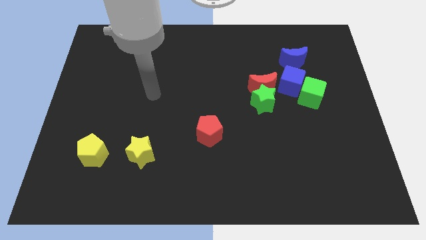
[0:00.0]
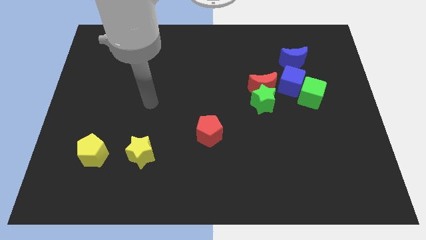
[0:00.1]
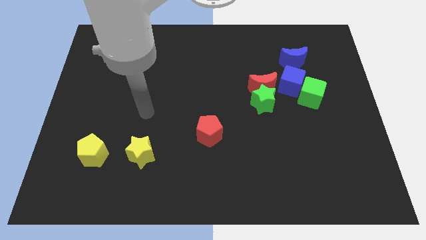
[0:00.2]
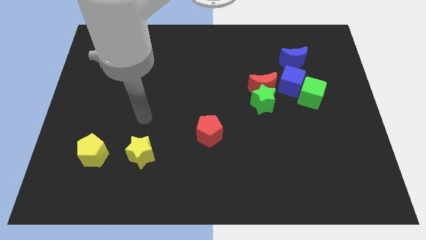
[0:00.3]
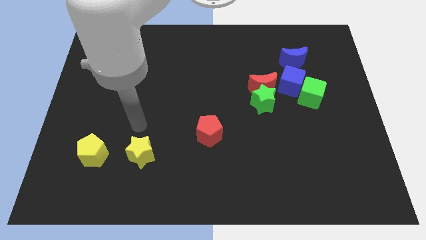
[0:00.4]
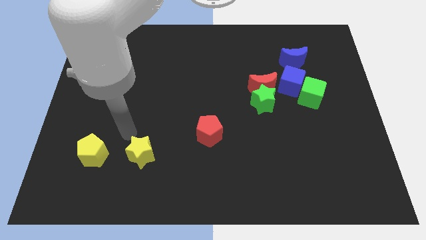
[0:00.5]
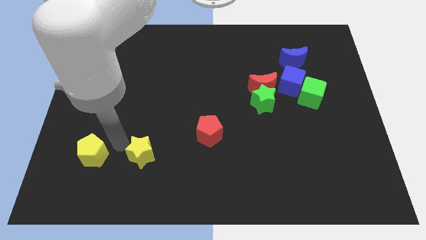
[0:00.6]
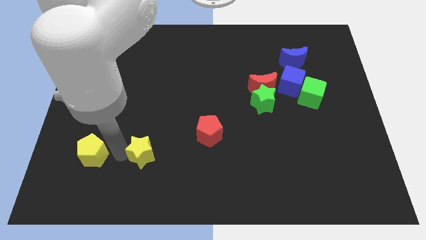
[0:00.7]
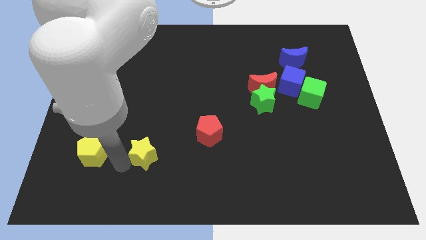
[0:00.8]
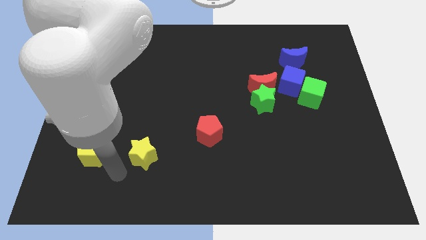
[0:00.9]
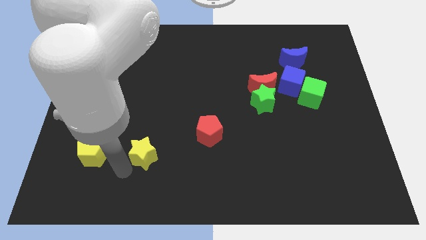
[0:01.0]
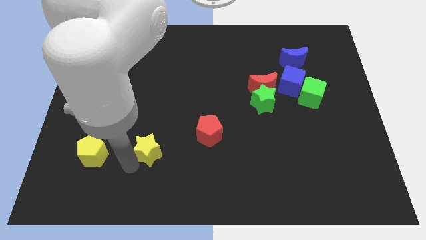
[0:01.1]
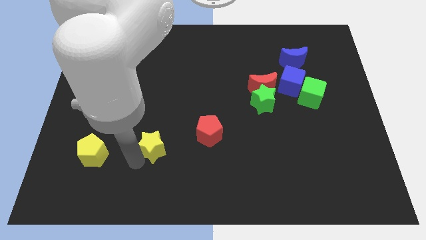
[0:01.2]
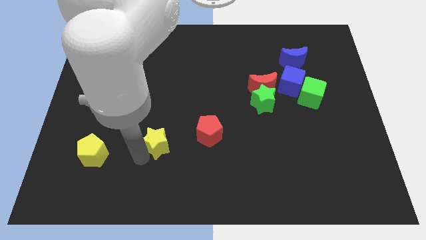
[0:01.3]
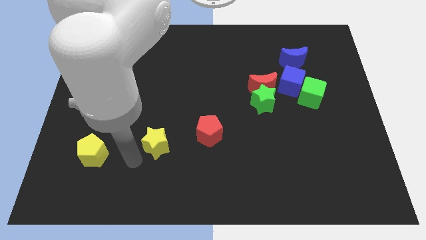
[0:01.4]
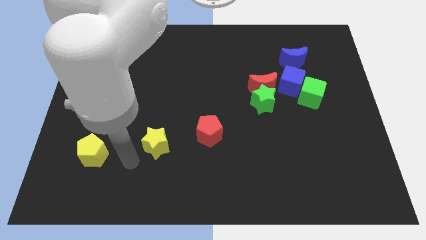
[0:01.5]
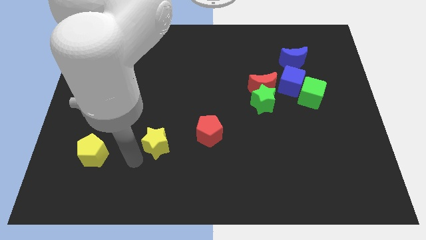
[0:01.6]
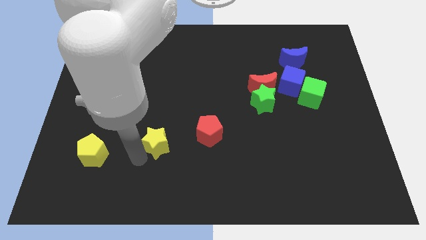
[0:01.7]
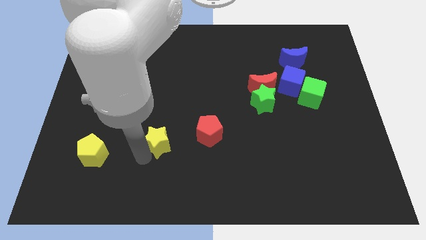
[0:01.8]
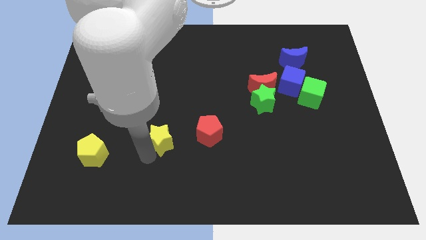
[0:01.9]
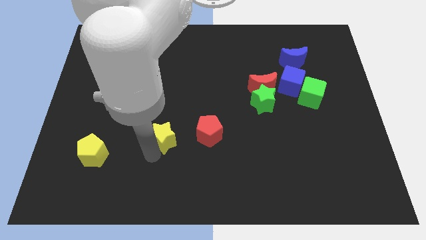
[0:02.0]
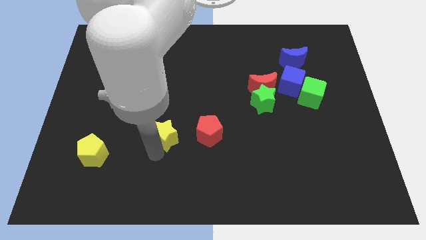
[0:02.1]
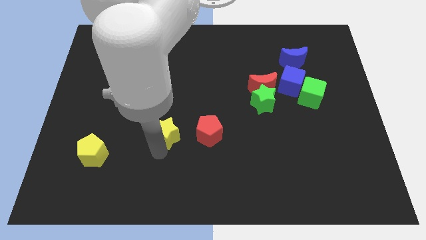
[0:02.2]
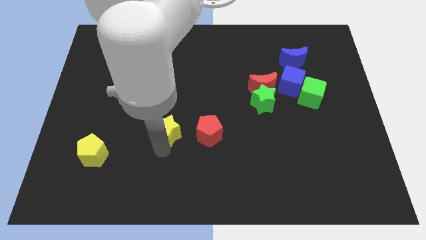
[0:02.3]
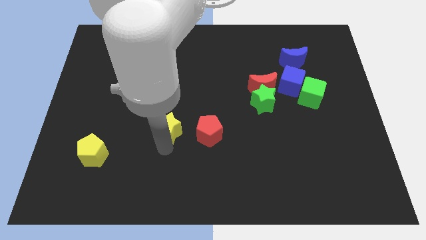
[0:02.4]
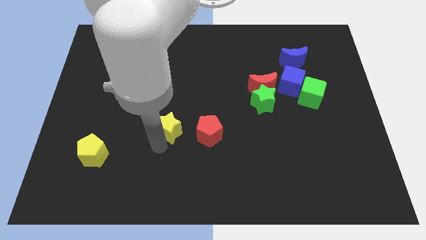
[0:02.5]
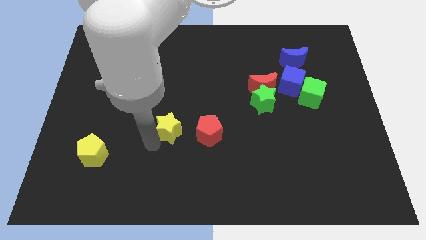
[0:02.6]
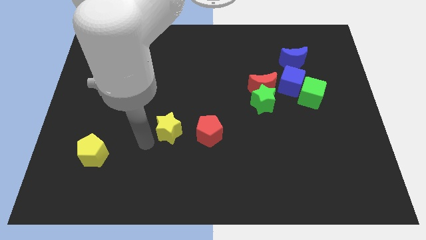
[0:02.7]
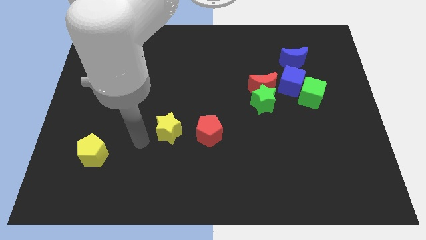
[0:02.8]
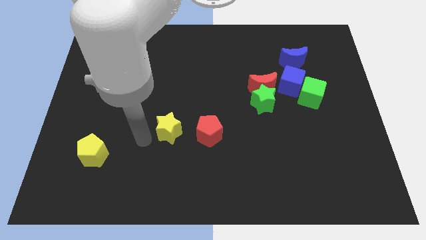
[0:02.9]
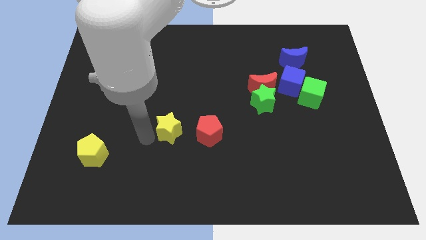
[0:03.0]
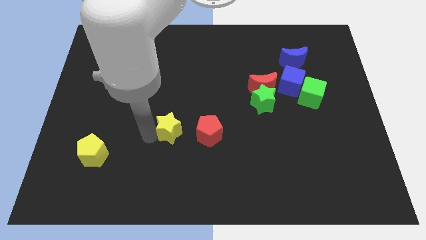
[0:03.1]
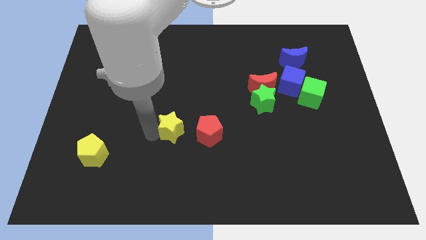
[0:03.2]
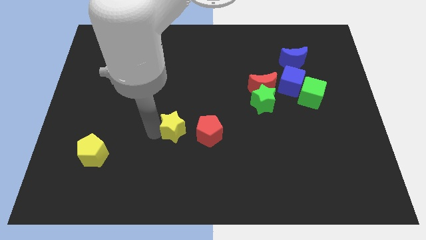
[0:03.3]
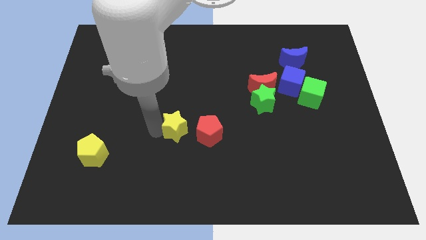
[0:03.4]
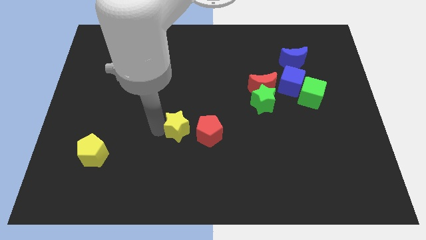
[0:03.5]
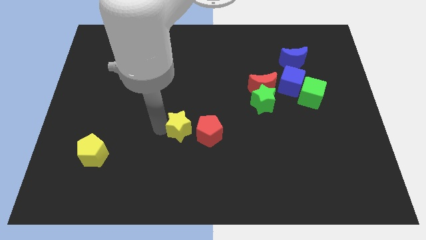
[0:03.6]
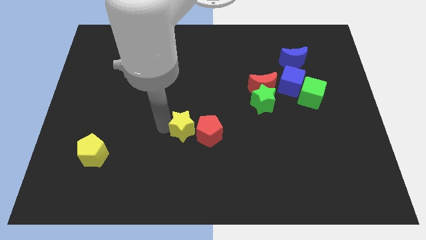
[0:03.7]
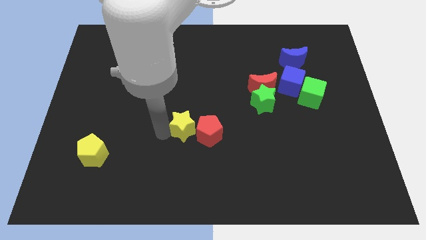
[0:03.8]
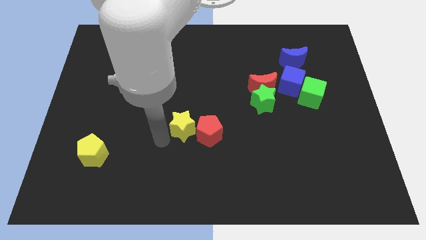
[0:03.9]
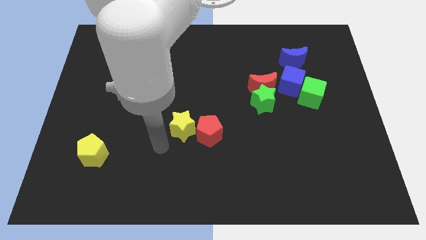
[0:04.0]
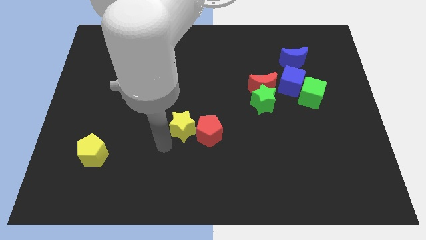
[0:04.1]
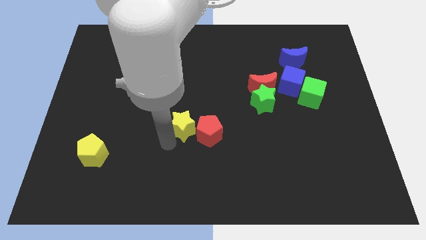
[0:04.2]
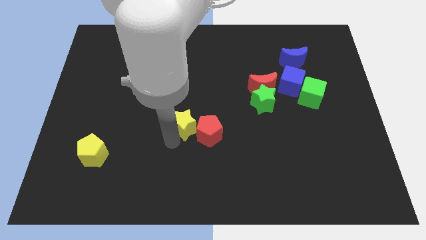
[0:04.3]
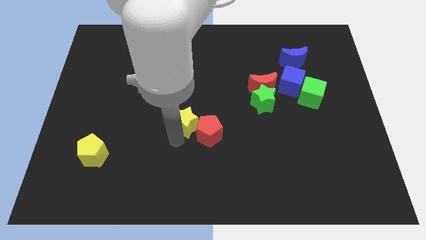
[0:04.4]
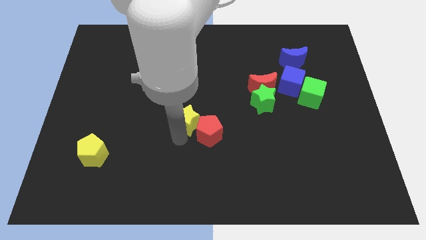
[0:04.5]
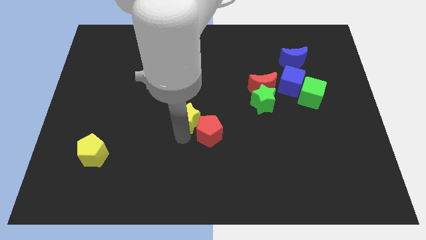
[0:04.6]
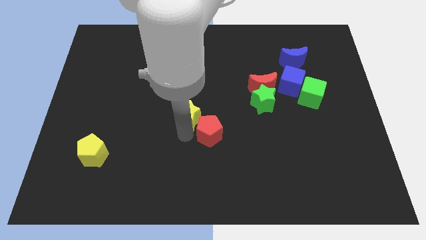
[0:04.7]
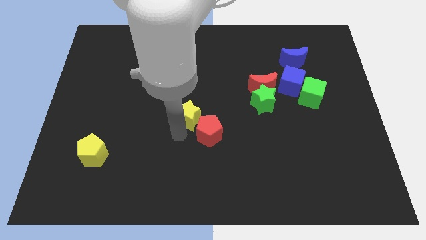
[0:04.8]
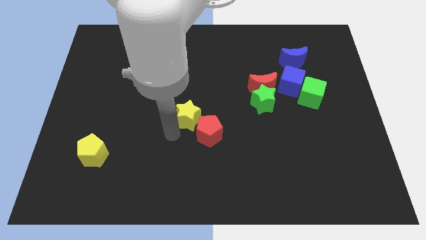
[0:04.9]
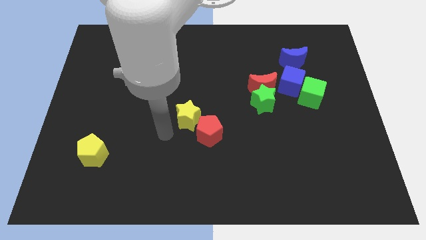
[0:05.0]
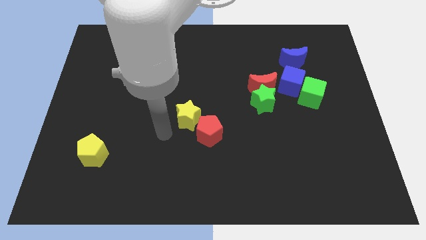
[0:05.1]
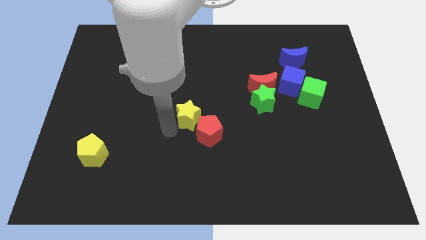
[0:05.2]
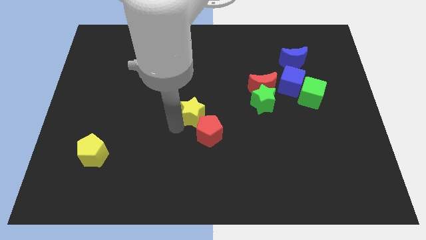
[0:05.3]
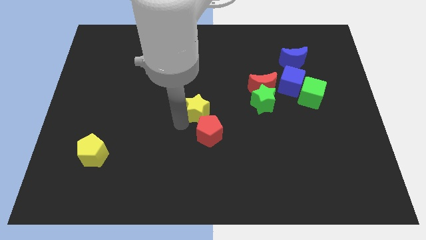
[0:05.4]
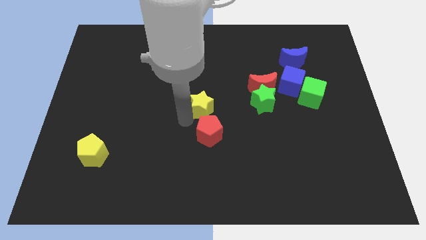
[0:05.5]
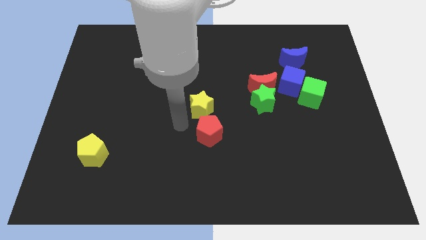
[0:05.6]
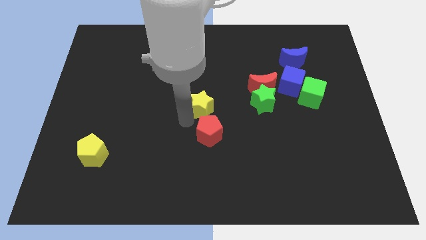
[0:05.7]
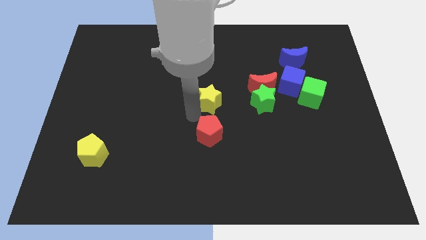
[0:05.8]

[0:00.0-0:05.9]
move the yellow star up and right

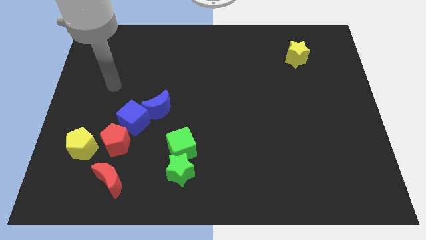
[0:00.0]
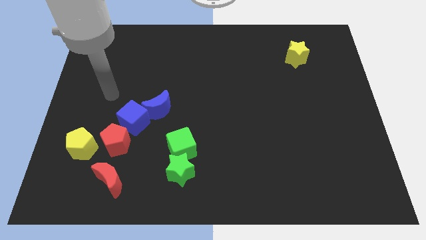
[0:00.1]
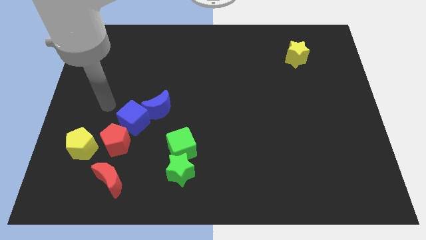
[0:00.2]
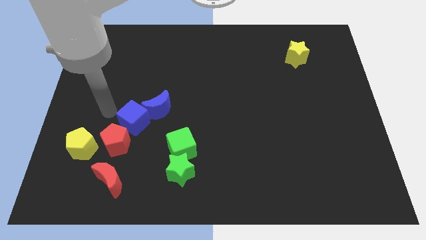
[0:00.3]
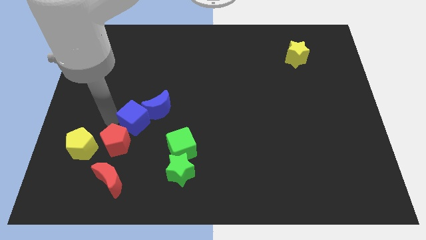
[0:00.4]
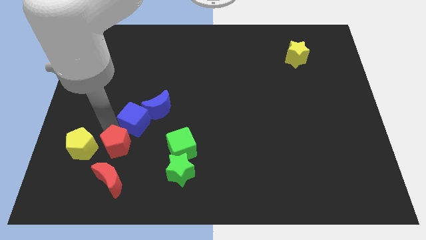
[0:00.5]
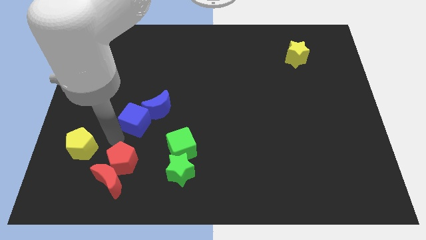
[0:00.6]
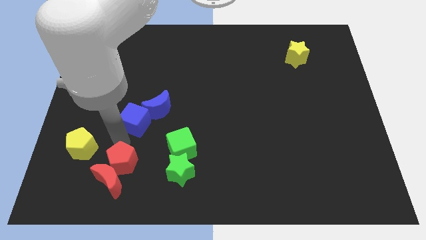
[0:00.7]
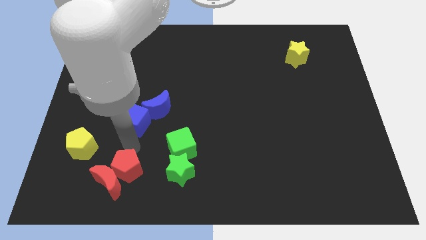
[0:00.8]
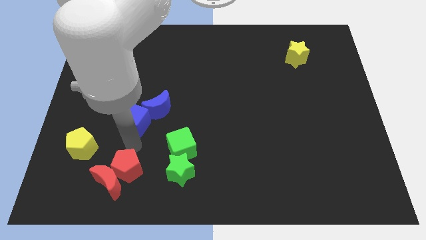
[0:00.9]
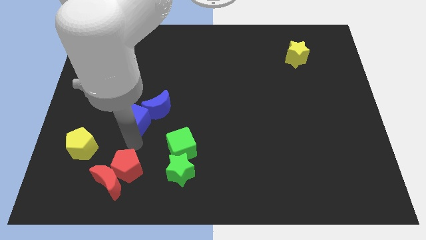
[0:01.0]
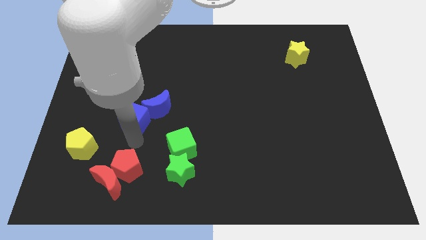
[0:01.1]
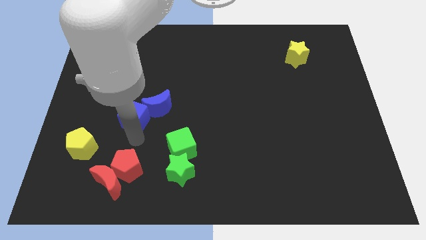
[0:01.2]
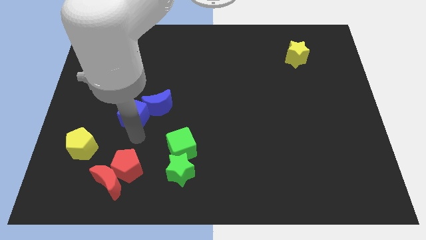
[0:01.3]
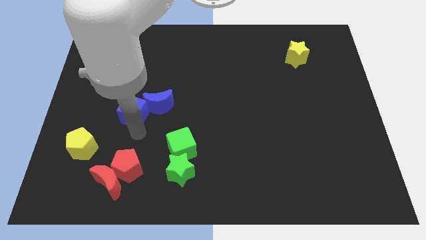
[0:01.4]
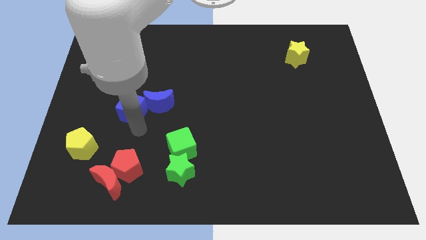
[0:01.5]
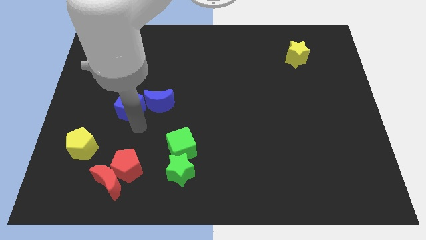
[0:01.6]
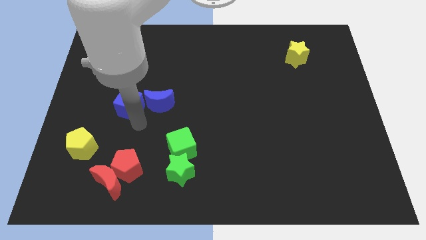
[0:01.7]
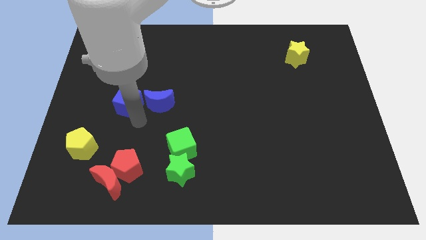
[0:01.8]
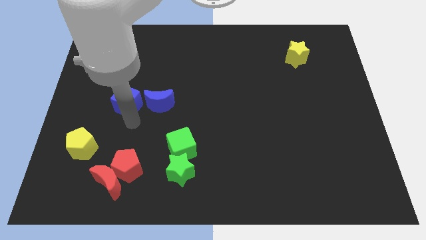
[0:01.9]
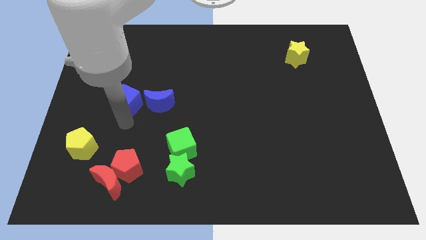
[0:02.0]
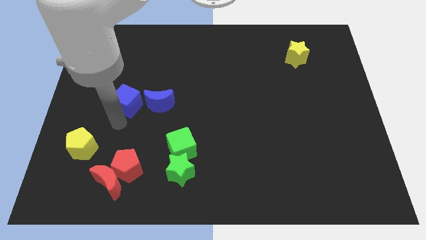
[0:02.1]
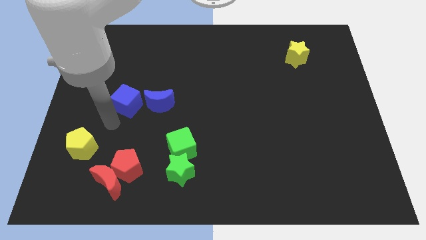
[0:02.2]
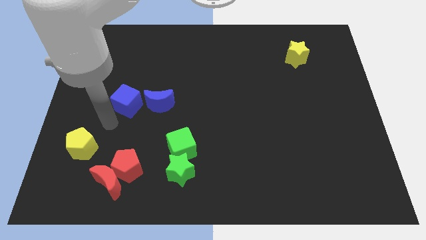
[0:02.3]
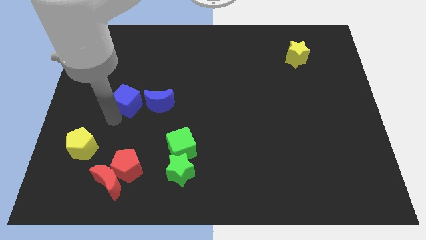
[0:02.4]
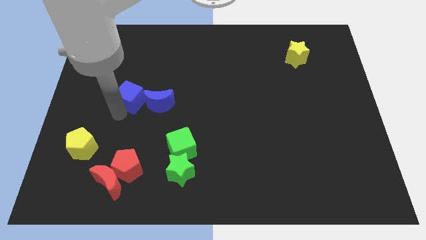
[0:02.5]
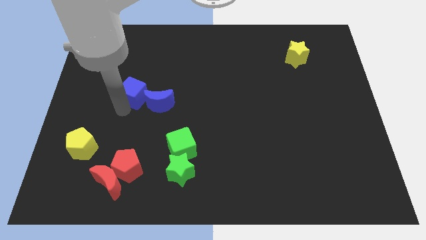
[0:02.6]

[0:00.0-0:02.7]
slightly slide the blue cube upwards
